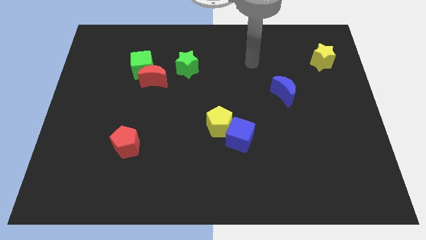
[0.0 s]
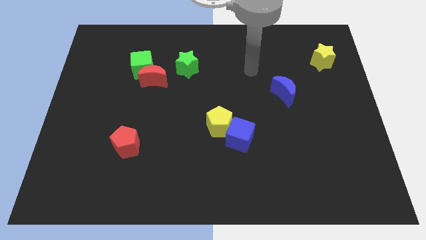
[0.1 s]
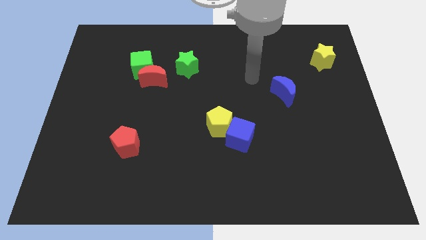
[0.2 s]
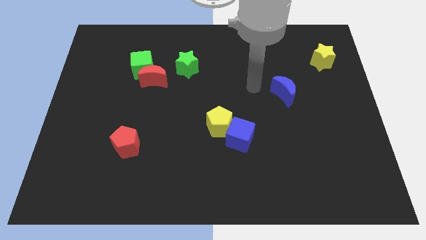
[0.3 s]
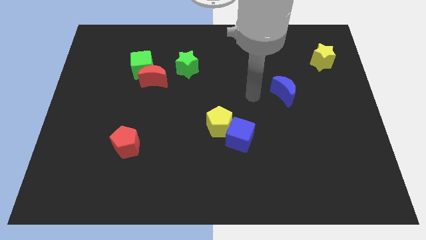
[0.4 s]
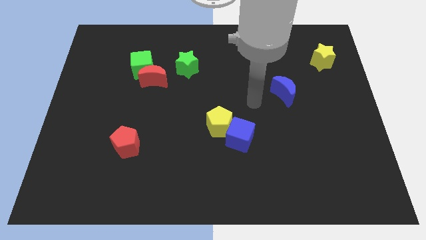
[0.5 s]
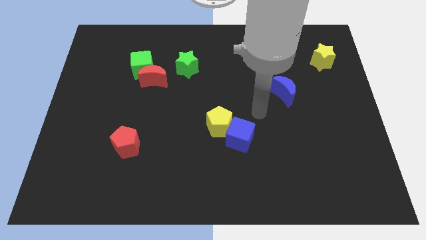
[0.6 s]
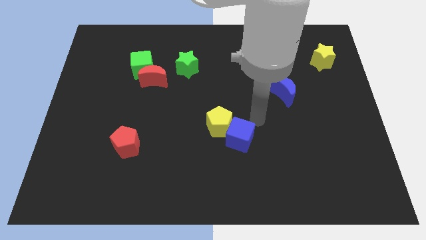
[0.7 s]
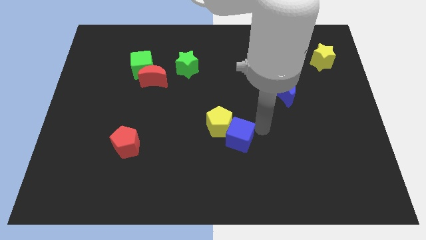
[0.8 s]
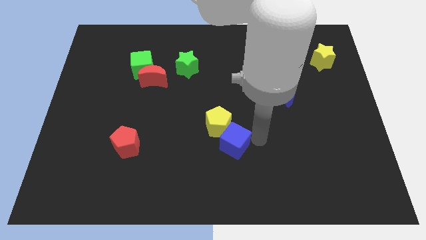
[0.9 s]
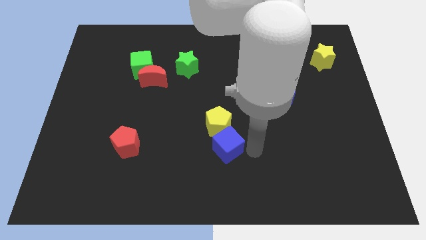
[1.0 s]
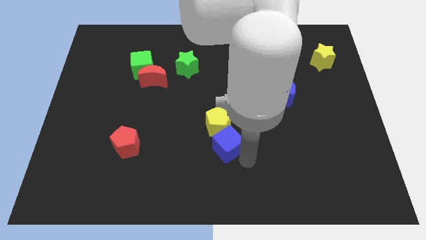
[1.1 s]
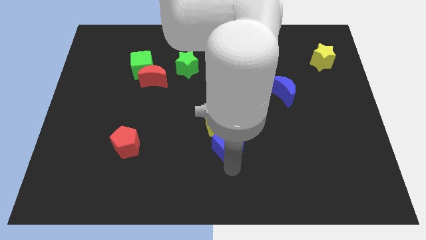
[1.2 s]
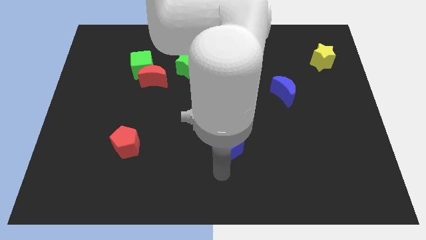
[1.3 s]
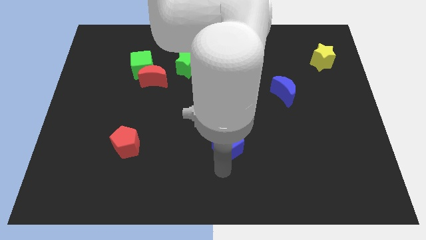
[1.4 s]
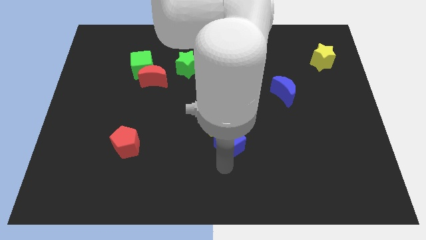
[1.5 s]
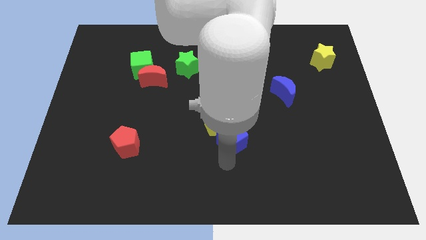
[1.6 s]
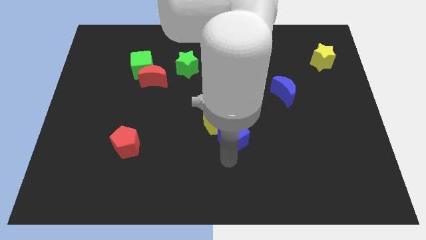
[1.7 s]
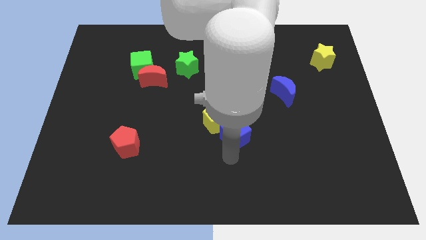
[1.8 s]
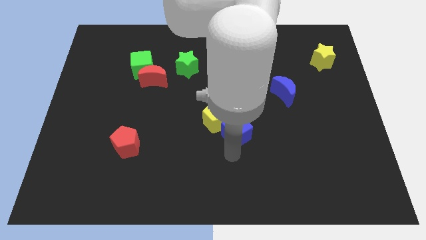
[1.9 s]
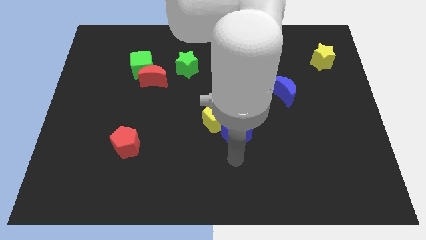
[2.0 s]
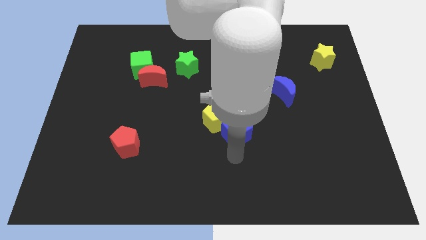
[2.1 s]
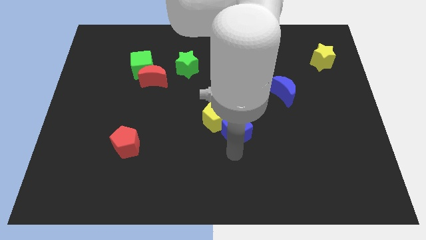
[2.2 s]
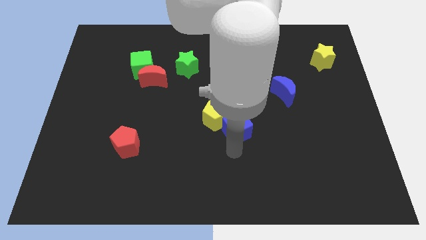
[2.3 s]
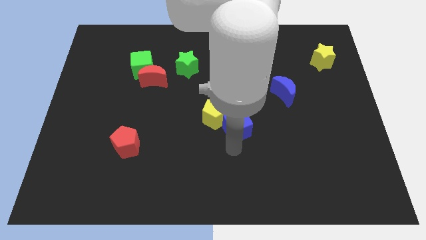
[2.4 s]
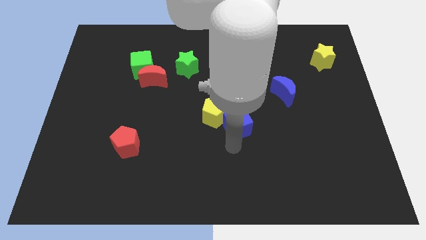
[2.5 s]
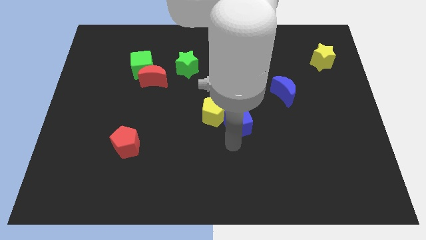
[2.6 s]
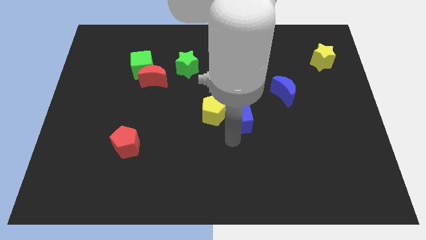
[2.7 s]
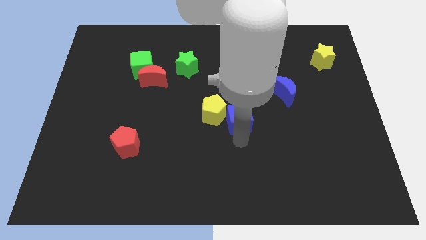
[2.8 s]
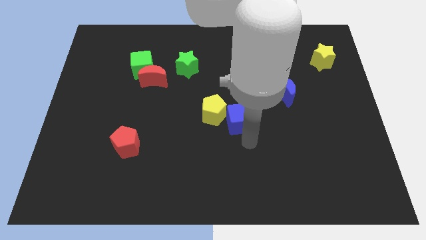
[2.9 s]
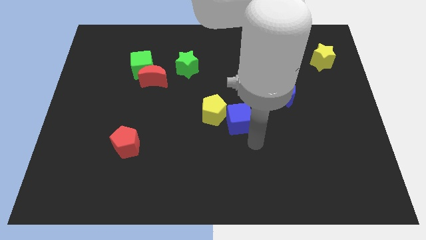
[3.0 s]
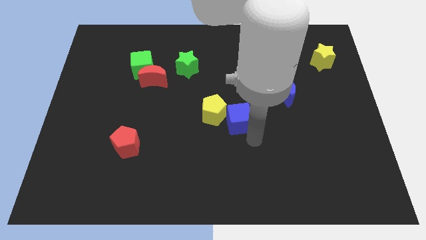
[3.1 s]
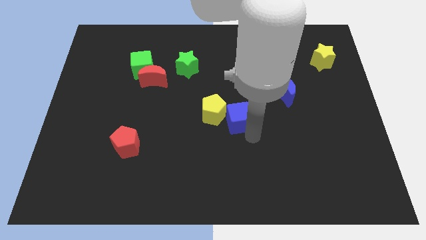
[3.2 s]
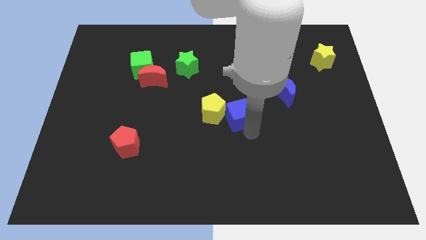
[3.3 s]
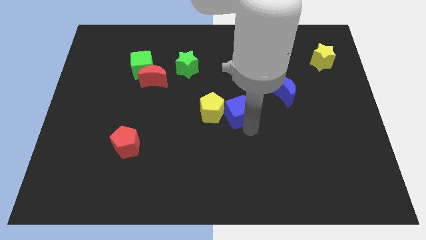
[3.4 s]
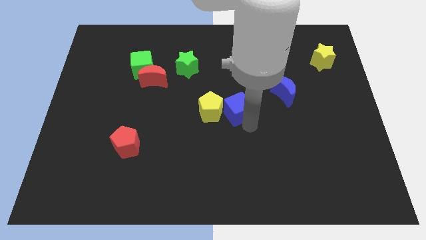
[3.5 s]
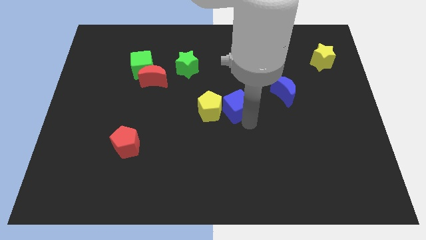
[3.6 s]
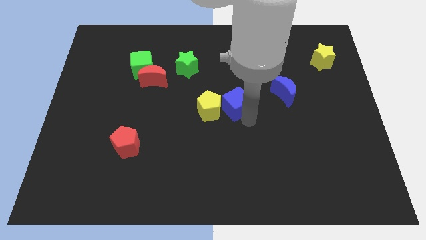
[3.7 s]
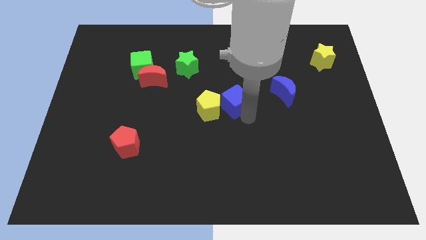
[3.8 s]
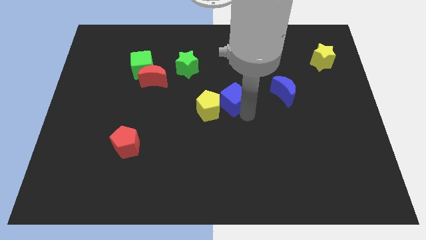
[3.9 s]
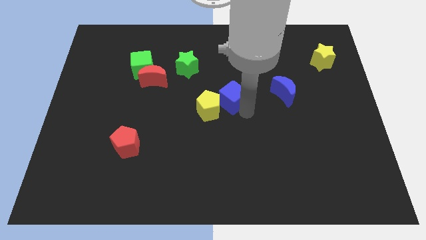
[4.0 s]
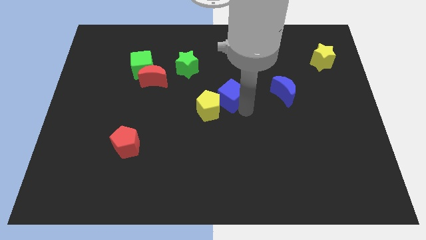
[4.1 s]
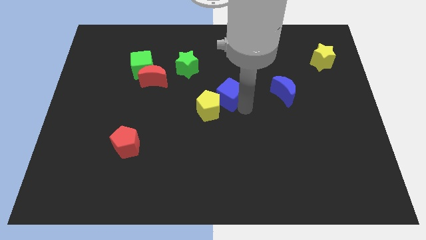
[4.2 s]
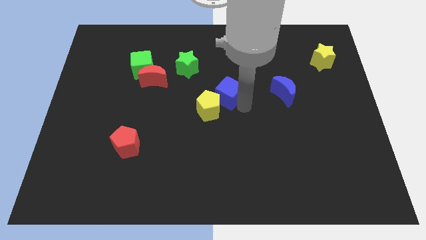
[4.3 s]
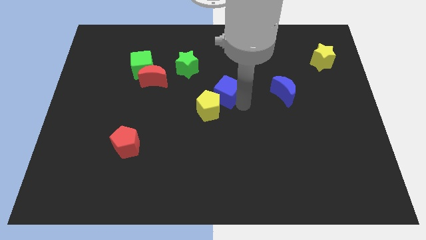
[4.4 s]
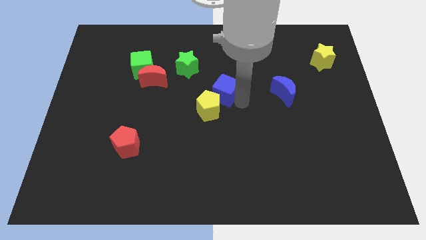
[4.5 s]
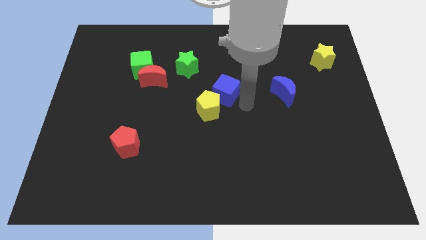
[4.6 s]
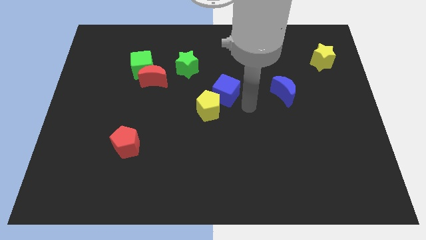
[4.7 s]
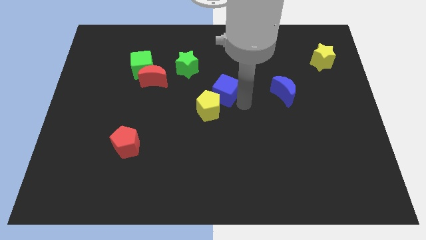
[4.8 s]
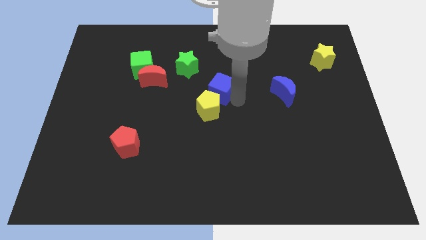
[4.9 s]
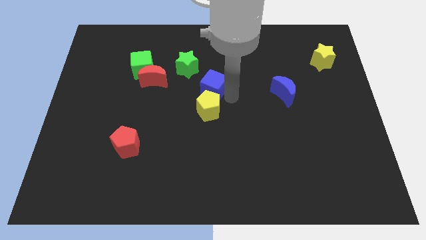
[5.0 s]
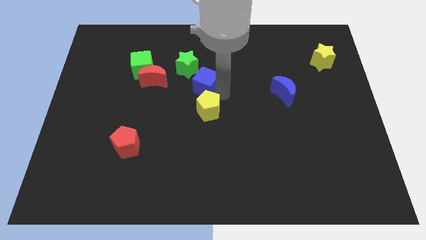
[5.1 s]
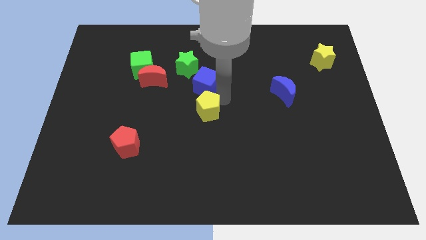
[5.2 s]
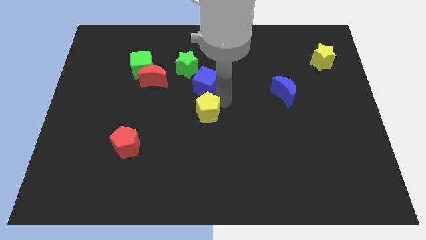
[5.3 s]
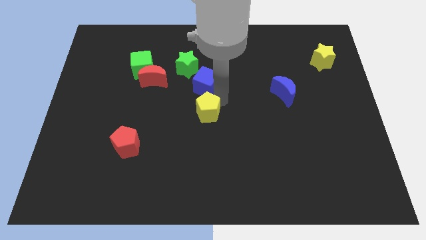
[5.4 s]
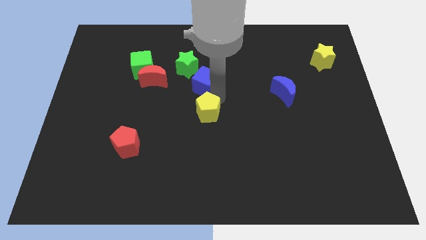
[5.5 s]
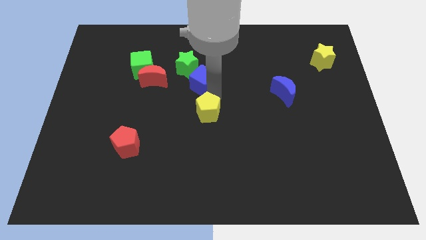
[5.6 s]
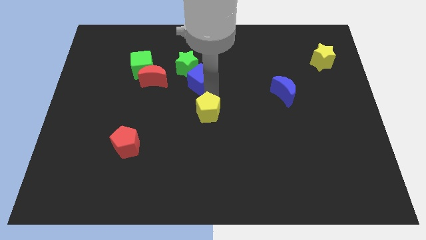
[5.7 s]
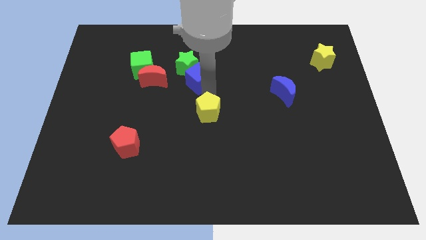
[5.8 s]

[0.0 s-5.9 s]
move the blue cube next to the green star

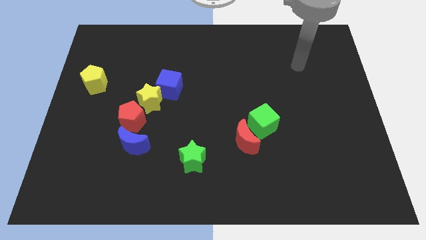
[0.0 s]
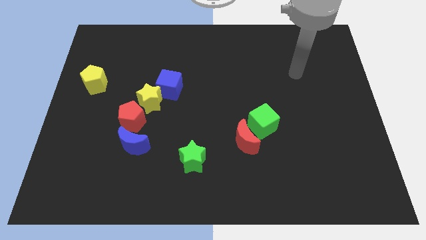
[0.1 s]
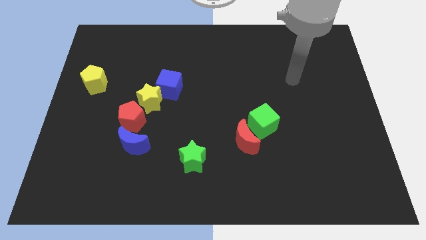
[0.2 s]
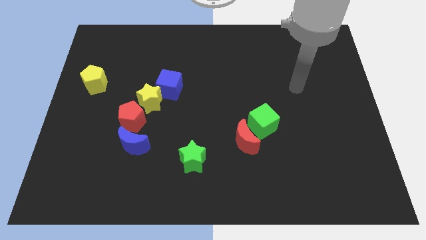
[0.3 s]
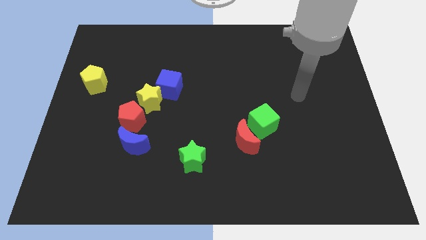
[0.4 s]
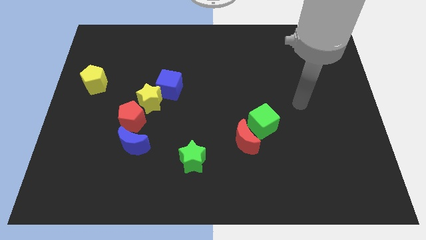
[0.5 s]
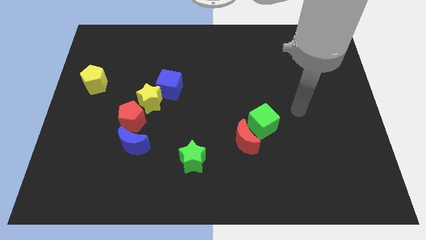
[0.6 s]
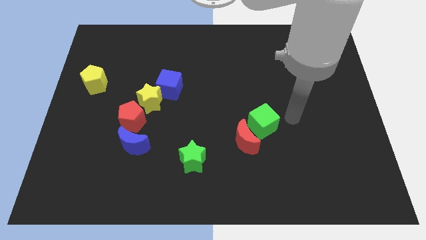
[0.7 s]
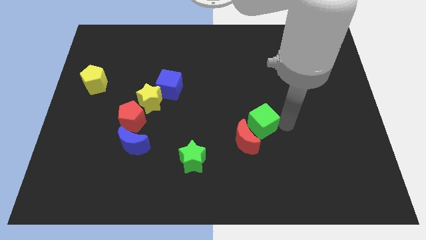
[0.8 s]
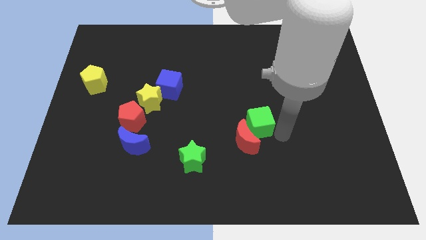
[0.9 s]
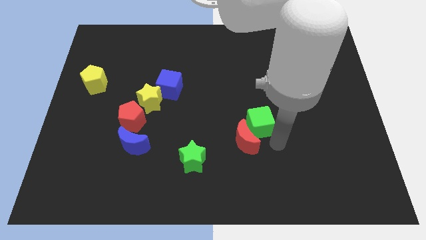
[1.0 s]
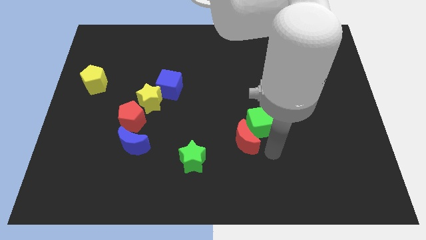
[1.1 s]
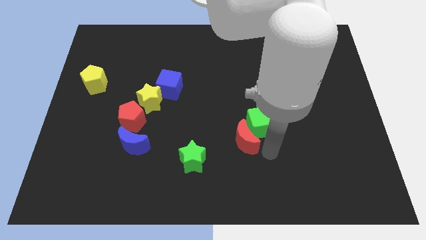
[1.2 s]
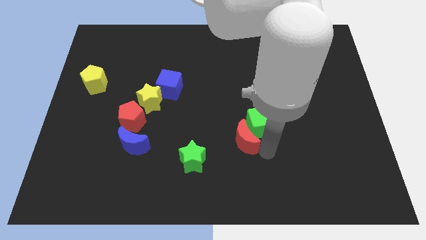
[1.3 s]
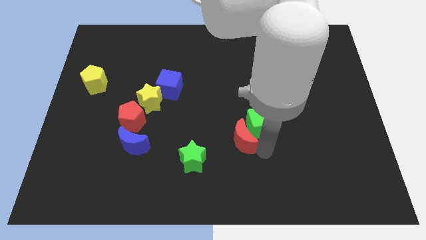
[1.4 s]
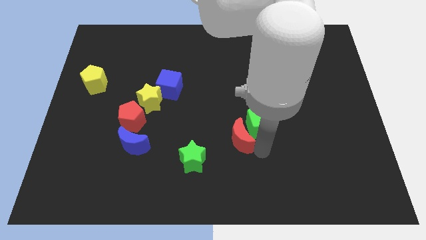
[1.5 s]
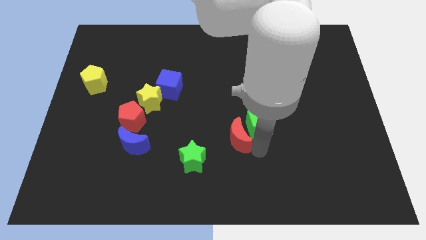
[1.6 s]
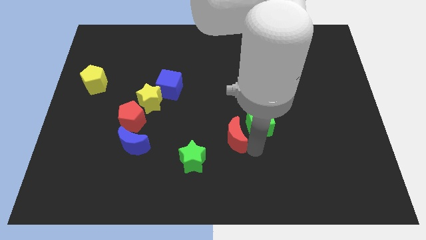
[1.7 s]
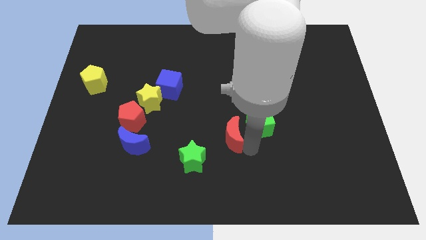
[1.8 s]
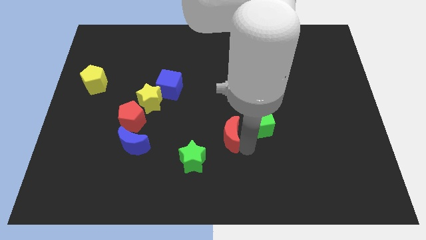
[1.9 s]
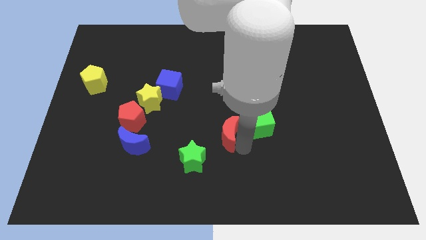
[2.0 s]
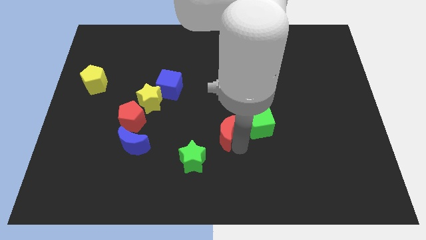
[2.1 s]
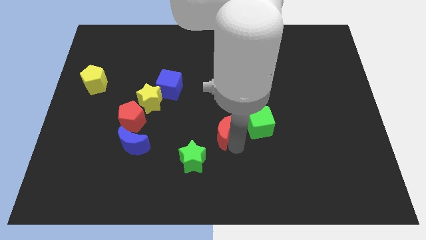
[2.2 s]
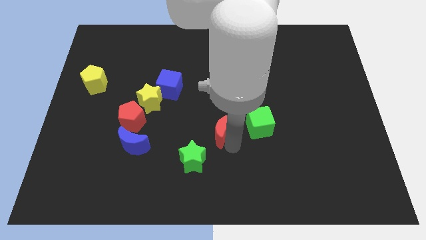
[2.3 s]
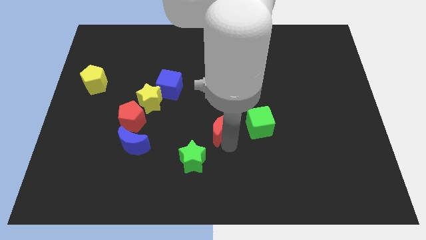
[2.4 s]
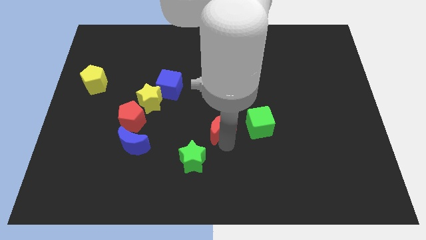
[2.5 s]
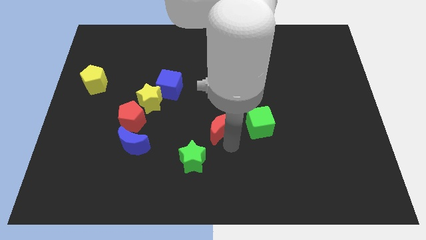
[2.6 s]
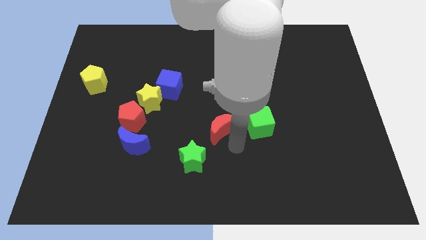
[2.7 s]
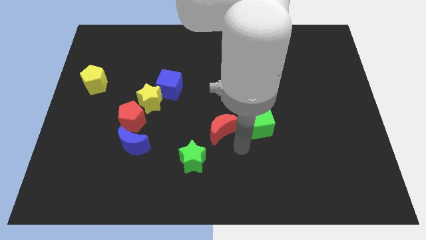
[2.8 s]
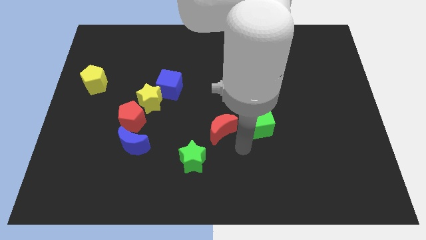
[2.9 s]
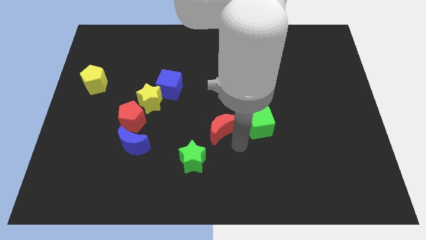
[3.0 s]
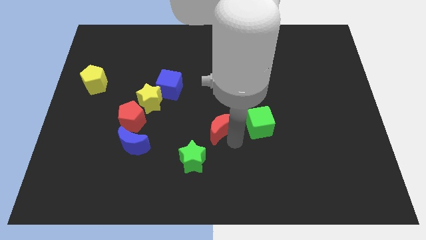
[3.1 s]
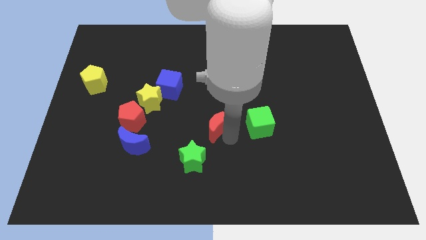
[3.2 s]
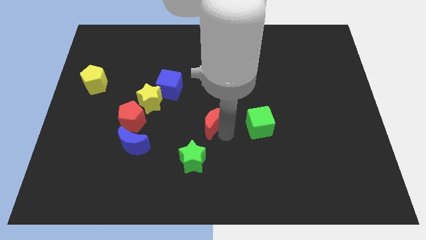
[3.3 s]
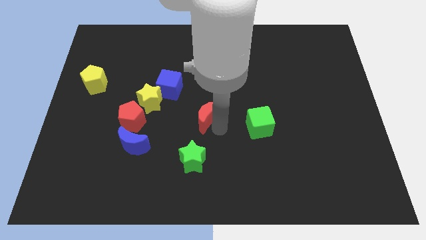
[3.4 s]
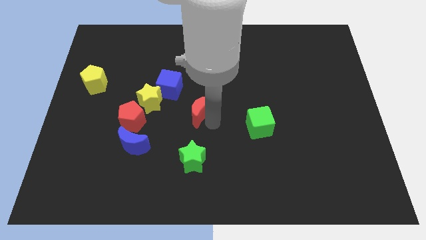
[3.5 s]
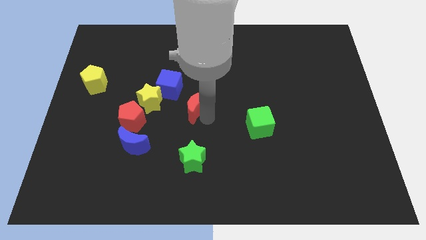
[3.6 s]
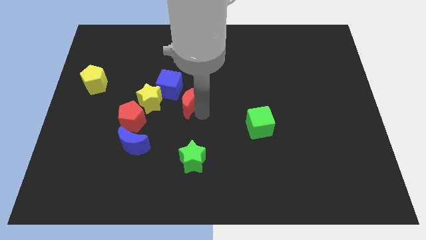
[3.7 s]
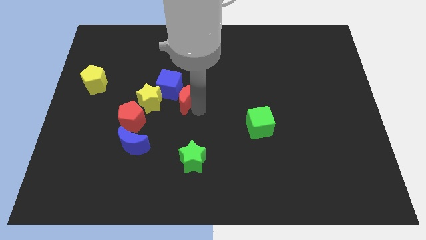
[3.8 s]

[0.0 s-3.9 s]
slide the red moon to the blue cube
